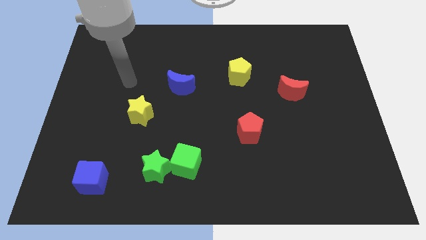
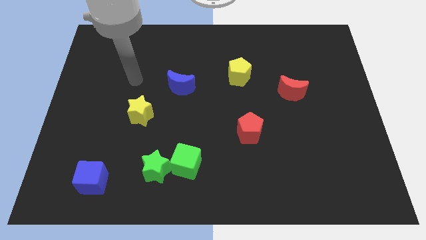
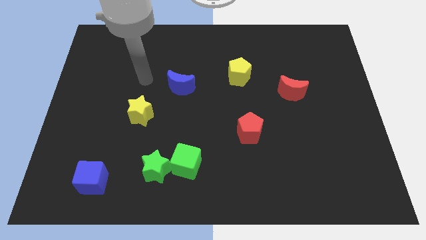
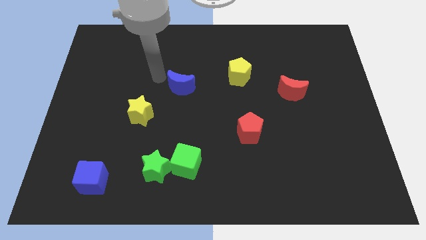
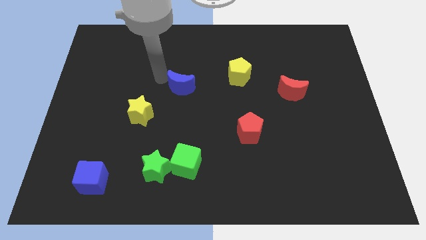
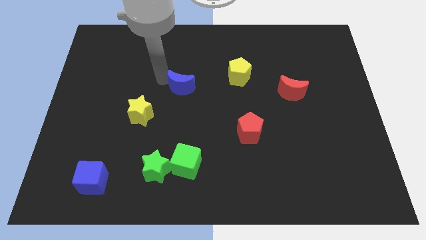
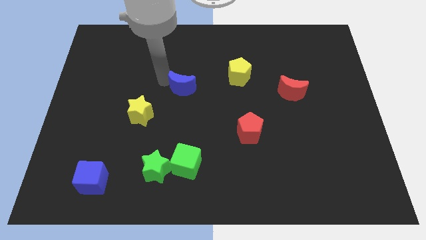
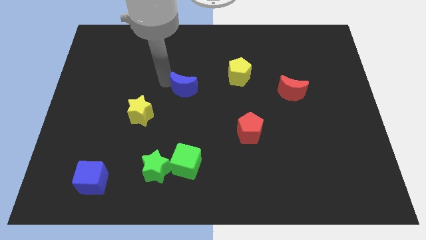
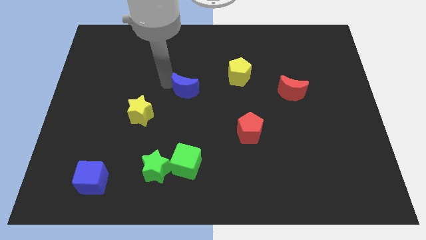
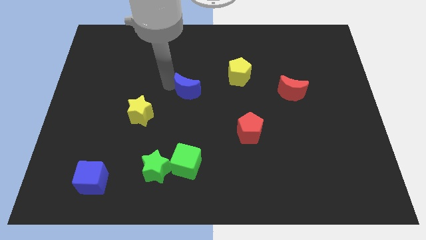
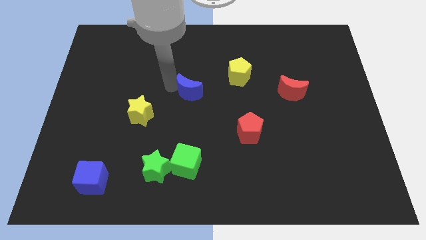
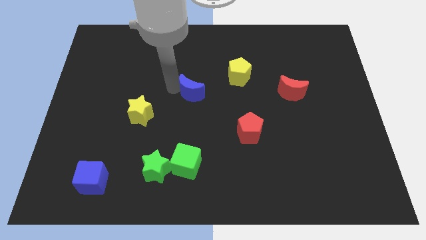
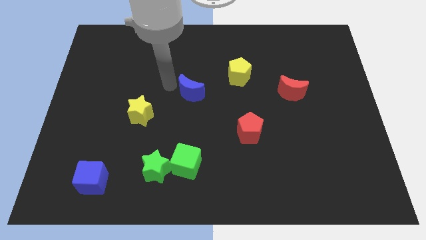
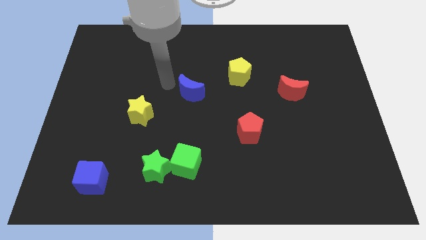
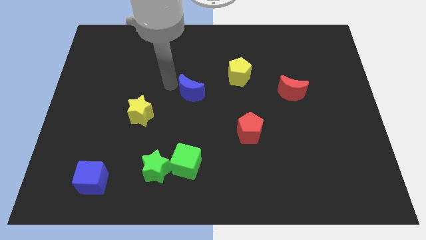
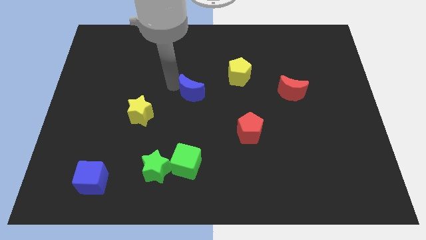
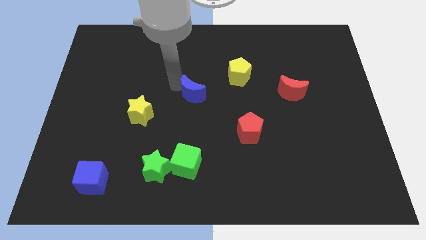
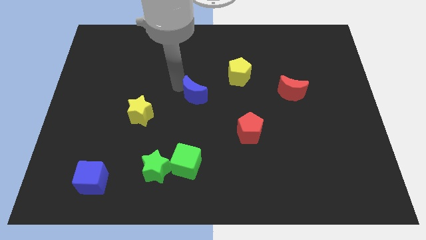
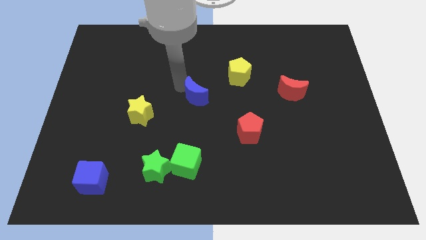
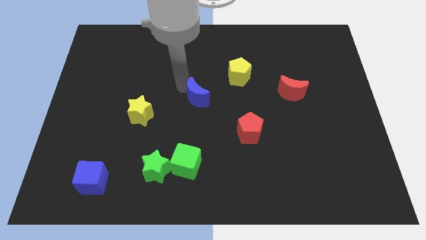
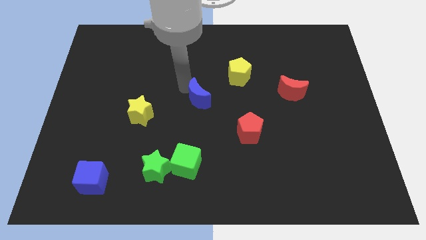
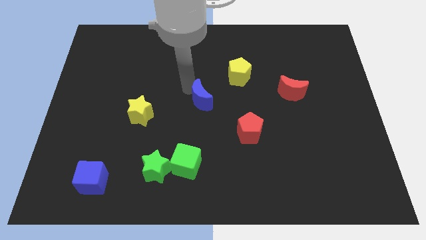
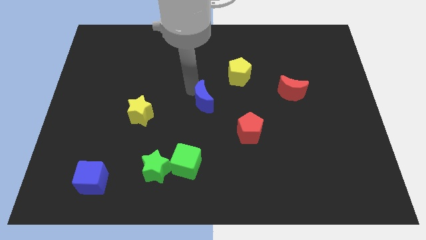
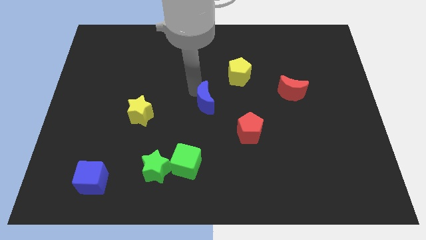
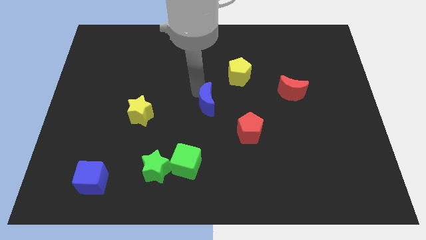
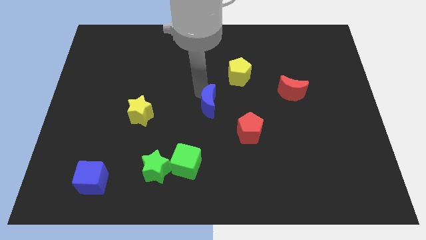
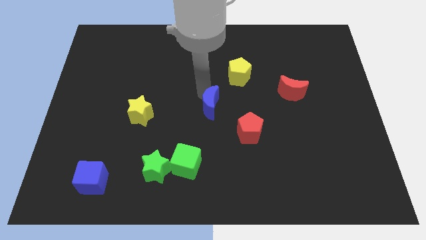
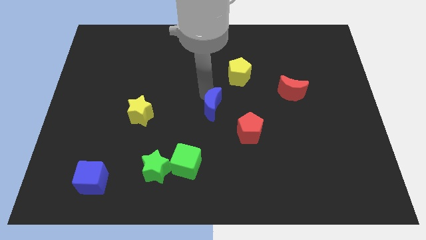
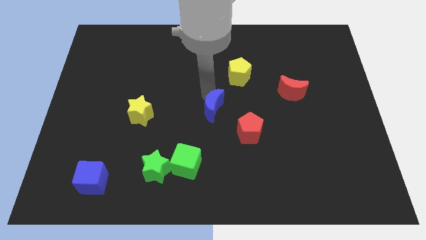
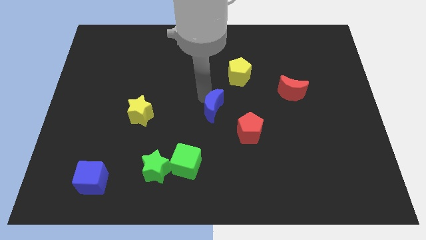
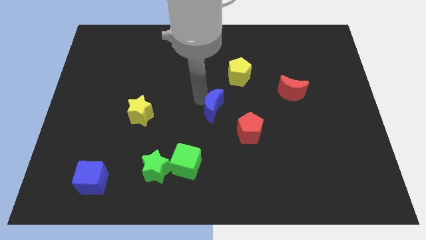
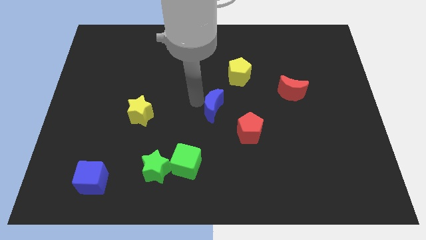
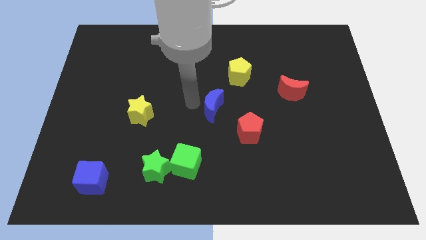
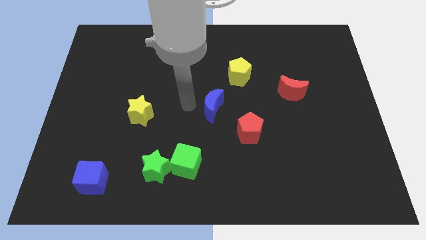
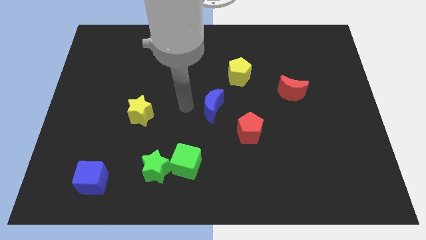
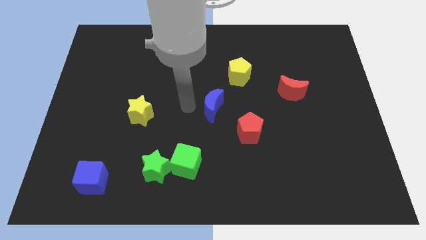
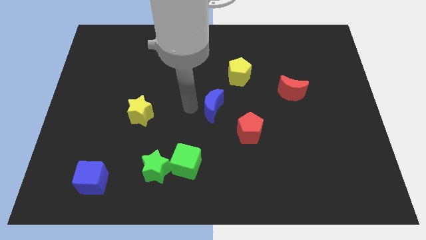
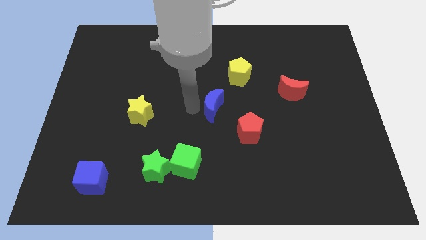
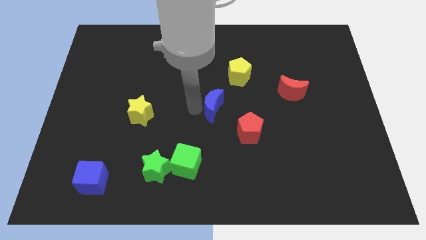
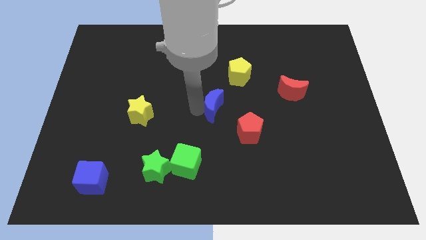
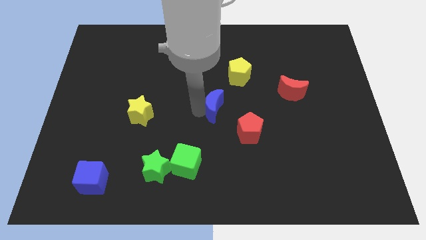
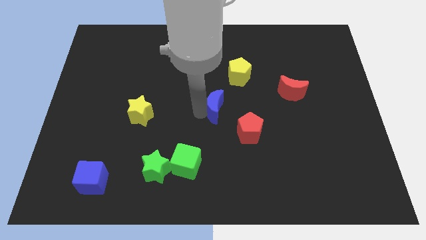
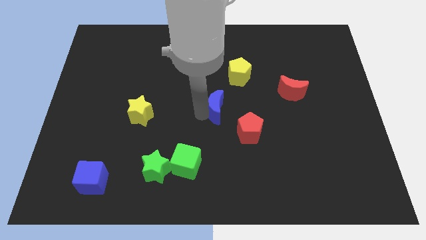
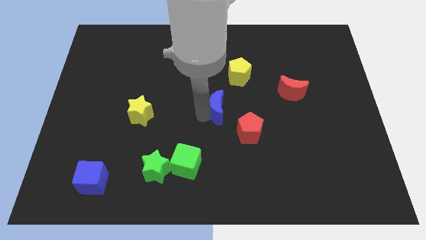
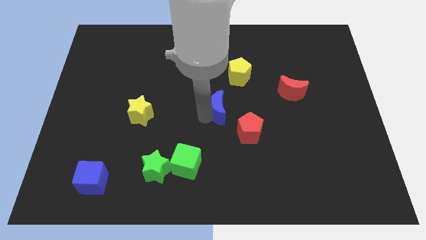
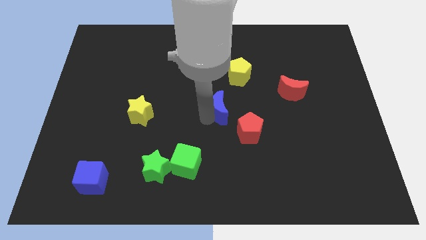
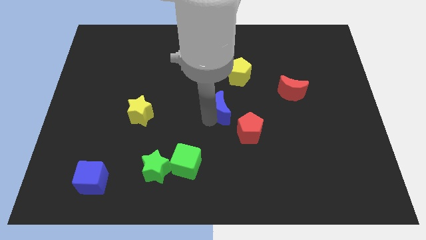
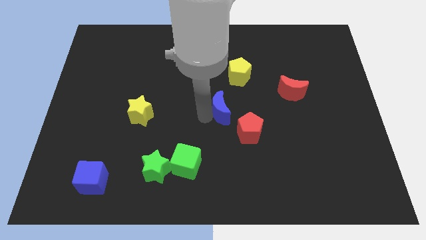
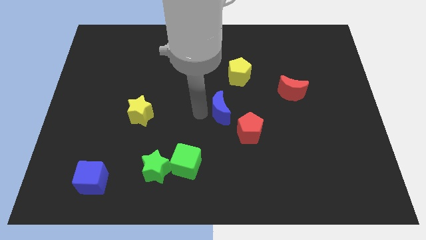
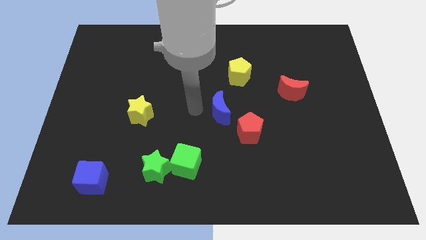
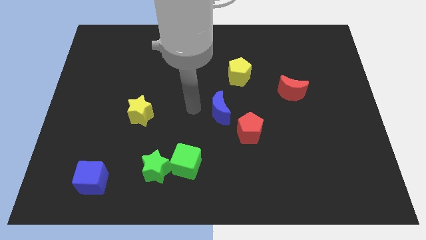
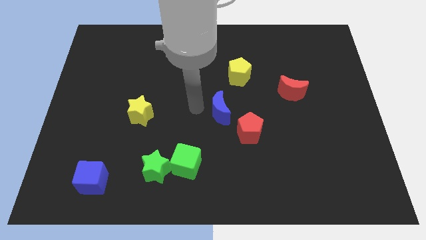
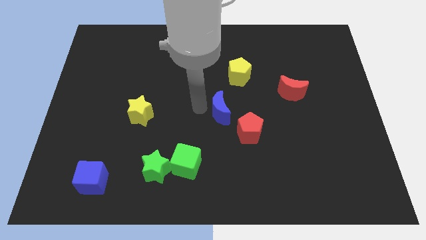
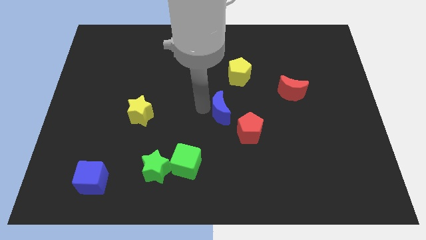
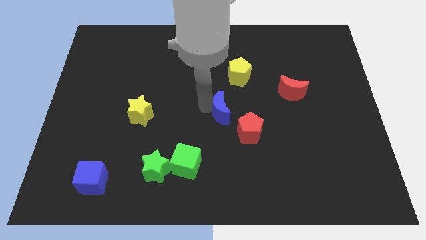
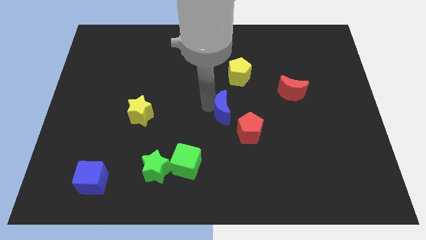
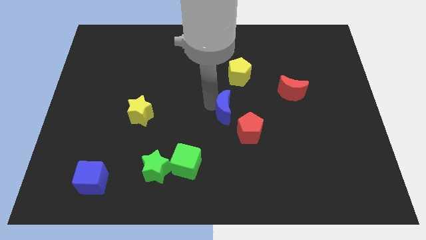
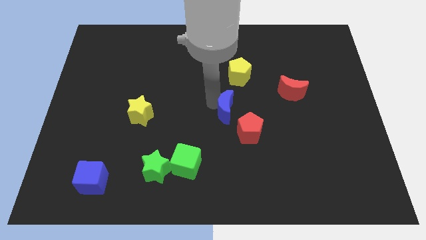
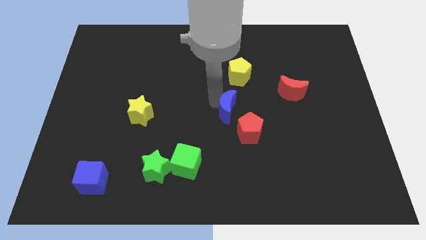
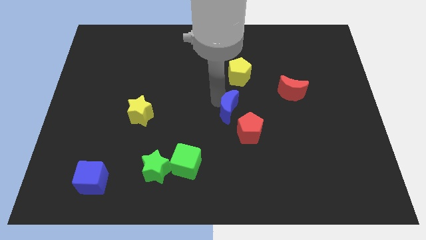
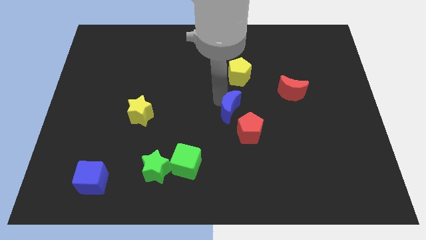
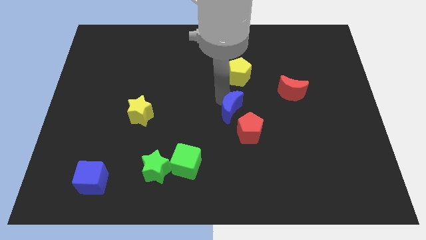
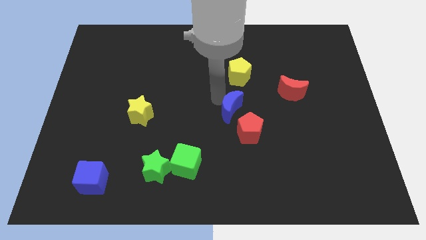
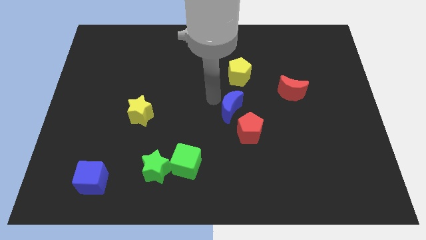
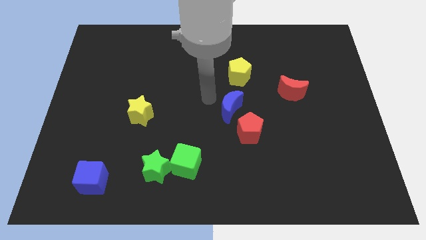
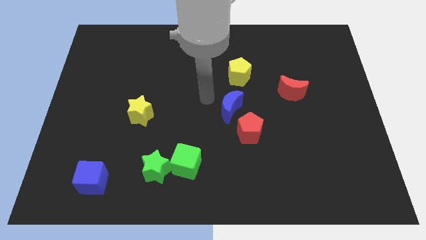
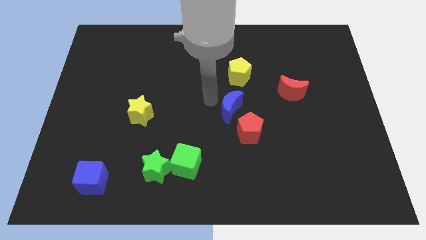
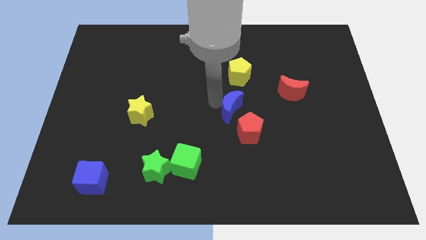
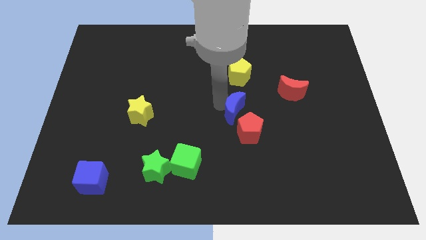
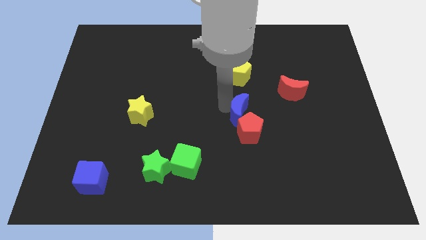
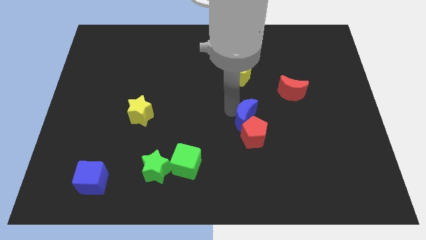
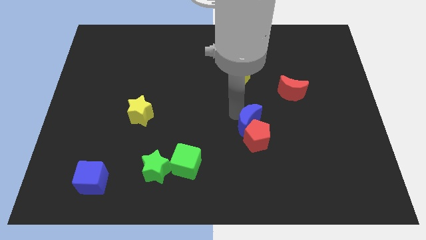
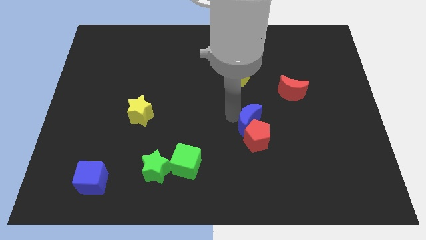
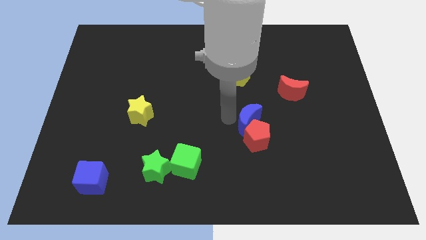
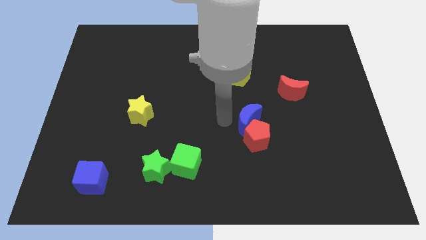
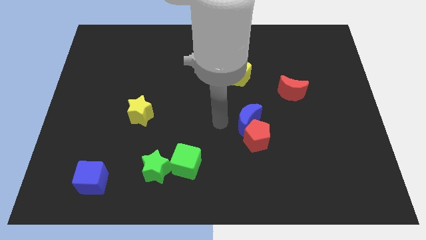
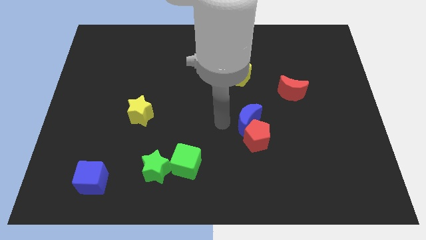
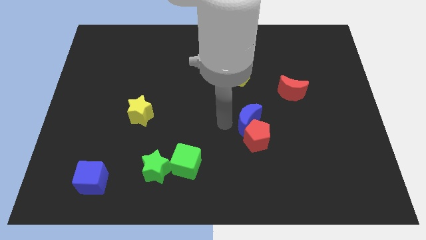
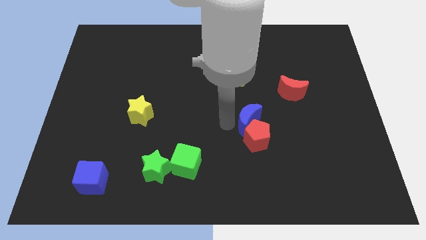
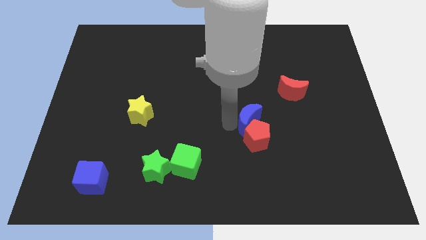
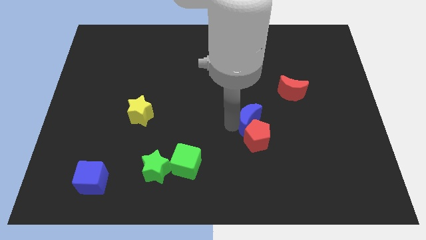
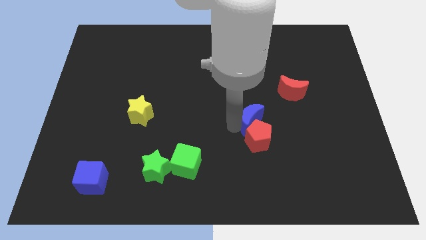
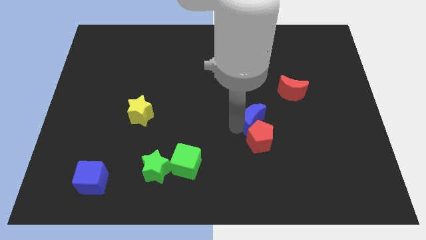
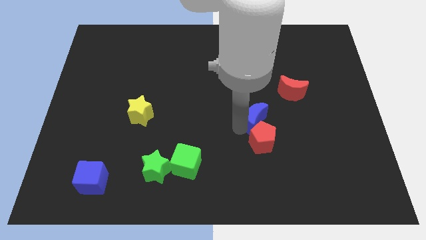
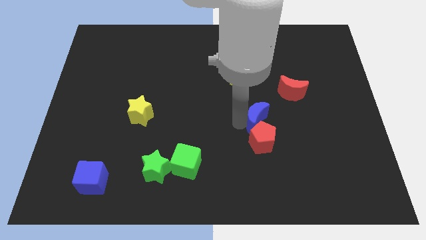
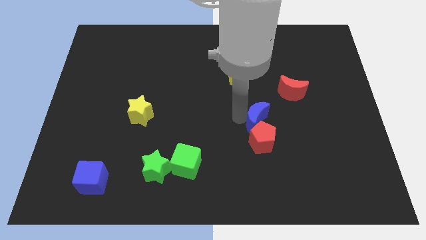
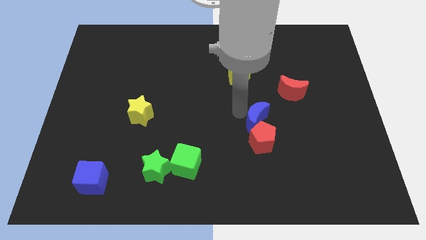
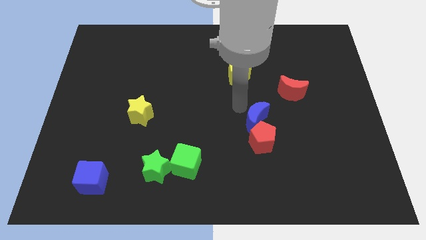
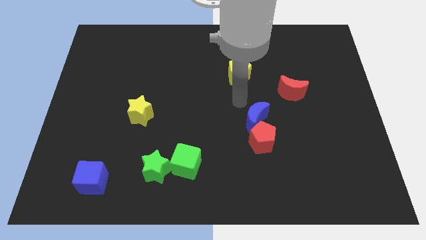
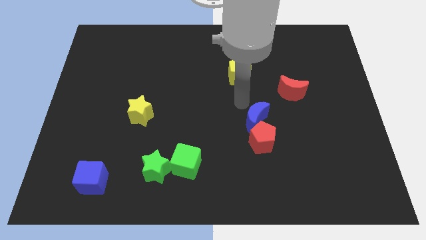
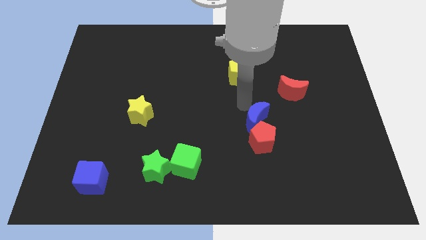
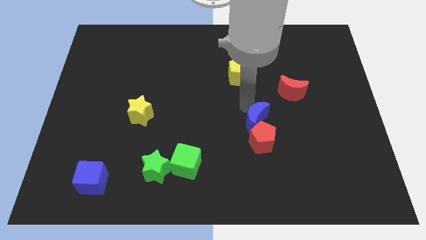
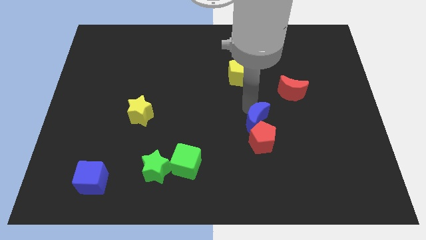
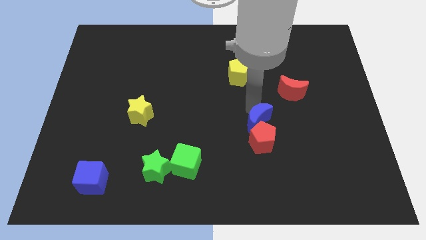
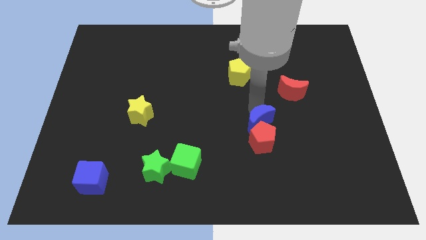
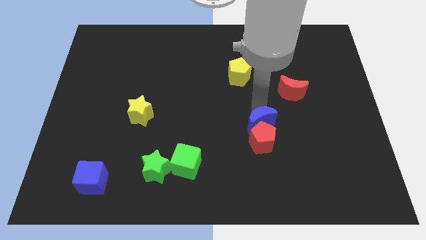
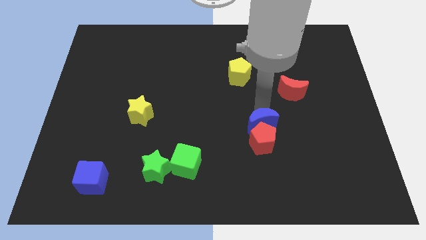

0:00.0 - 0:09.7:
push the blue moon down and right
